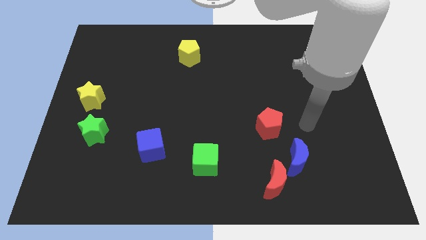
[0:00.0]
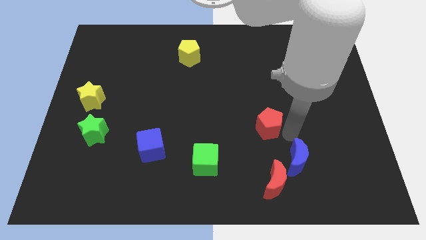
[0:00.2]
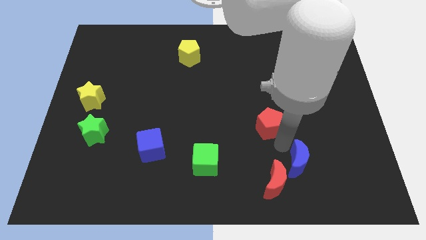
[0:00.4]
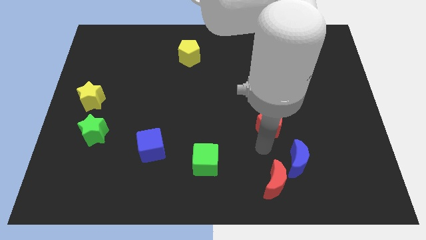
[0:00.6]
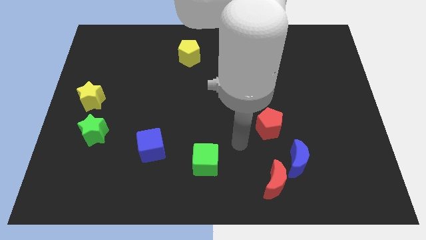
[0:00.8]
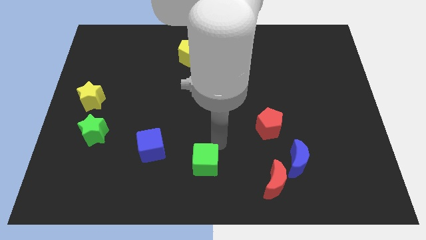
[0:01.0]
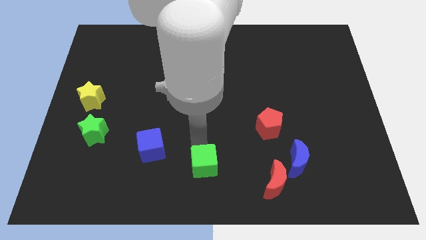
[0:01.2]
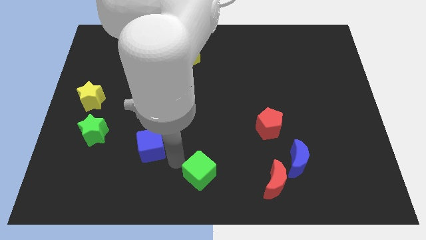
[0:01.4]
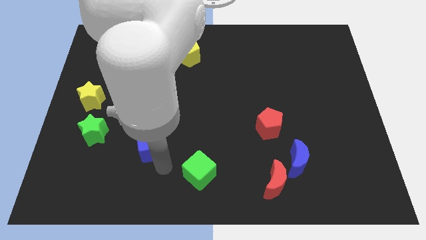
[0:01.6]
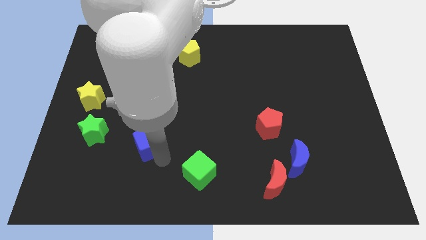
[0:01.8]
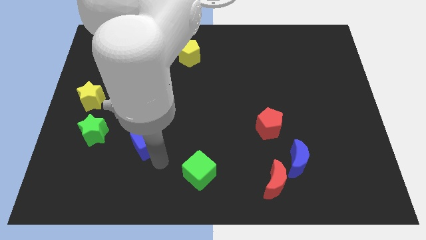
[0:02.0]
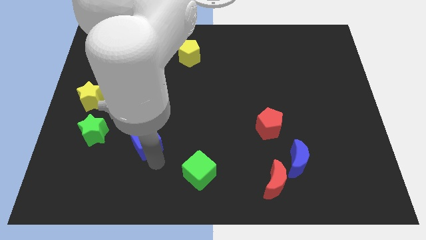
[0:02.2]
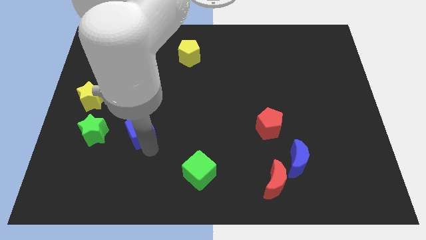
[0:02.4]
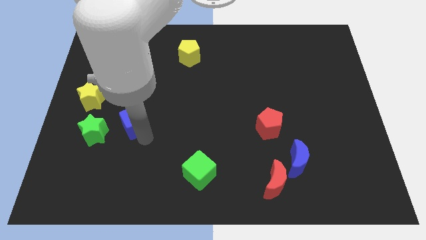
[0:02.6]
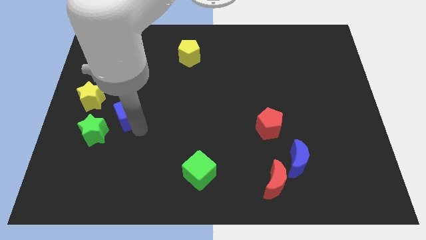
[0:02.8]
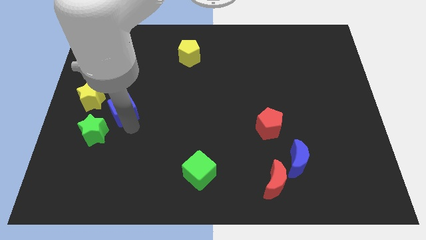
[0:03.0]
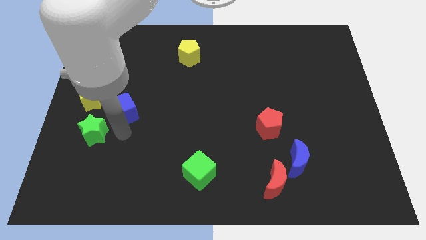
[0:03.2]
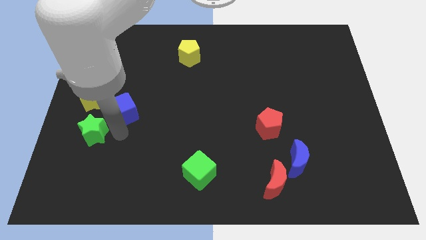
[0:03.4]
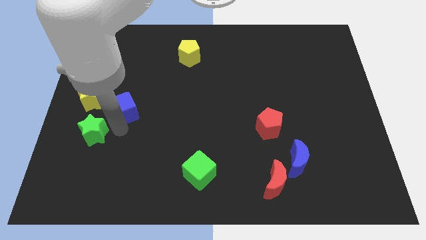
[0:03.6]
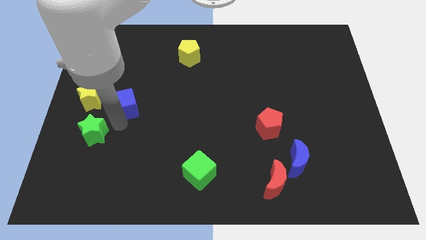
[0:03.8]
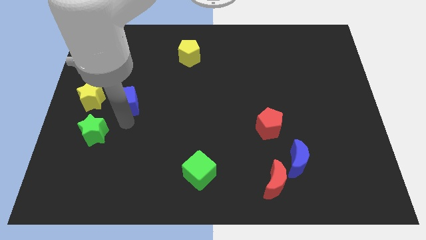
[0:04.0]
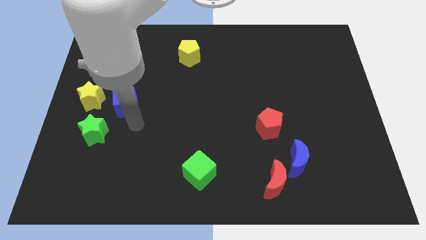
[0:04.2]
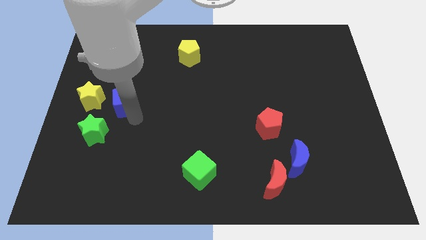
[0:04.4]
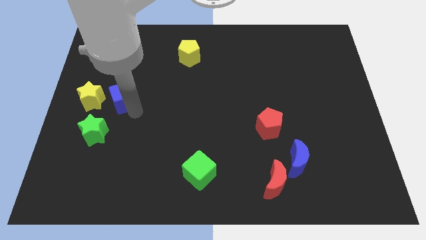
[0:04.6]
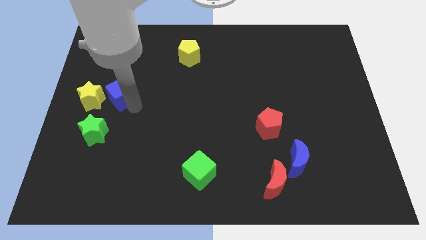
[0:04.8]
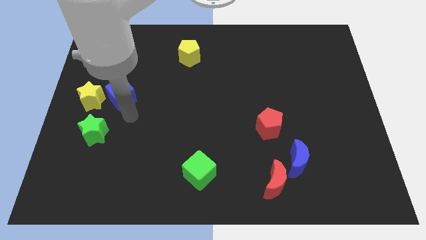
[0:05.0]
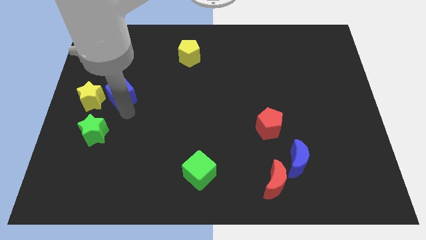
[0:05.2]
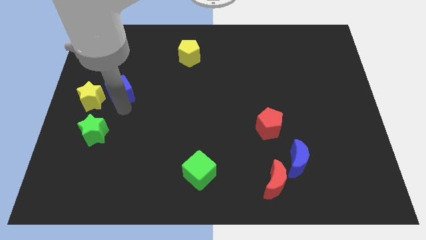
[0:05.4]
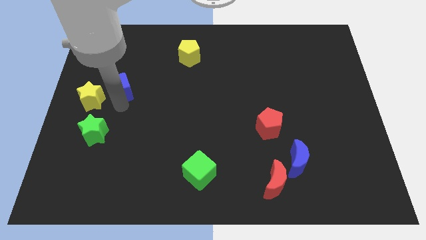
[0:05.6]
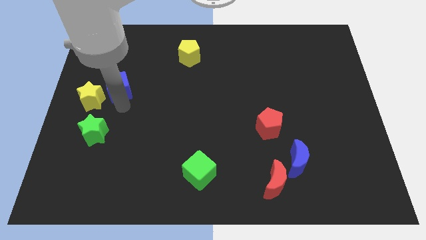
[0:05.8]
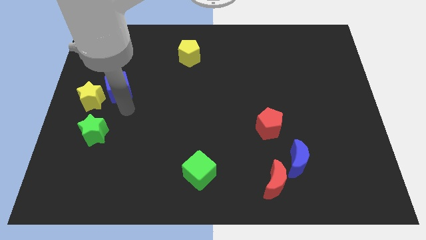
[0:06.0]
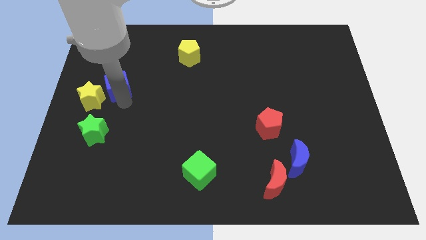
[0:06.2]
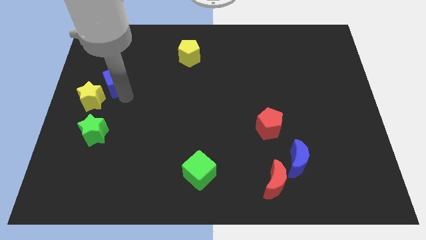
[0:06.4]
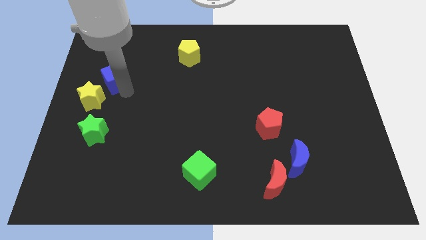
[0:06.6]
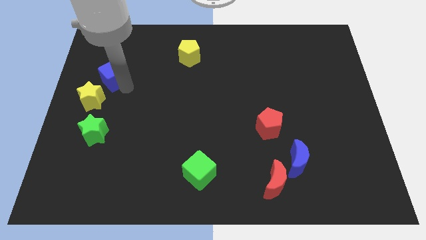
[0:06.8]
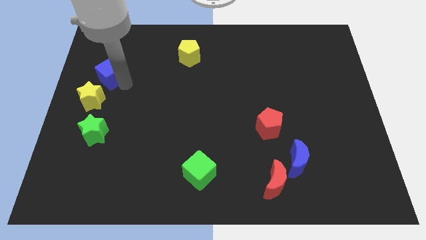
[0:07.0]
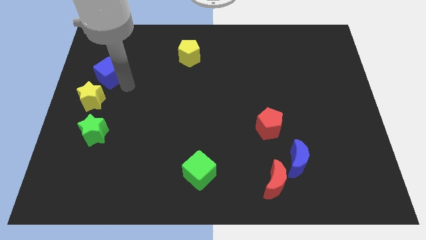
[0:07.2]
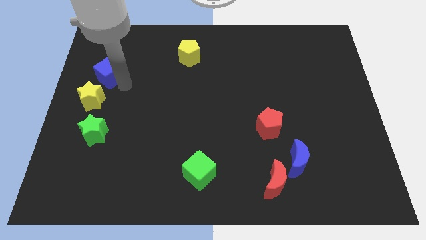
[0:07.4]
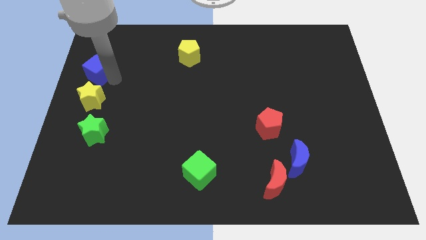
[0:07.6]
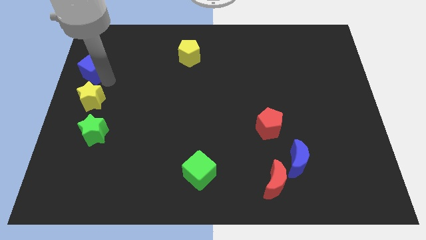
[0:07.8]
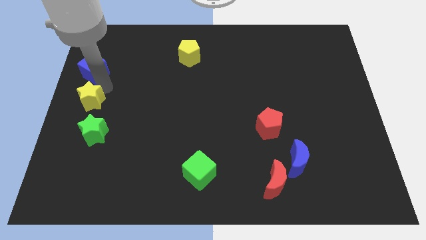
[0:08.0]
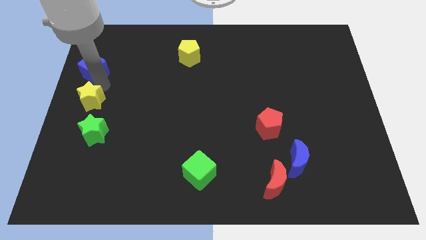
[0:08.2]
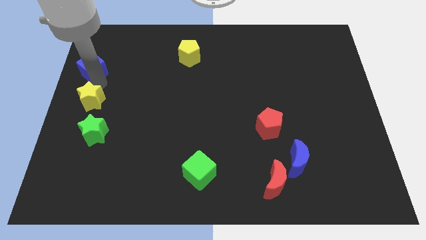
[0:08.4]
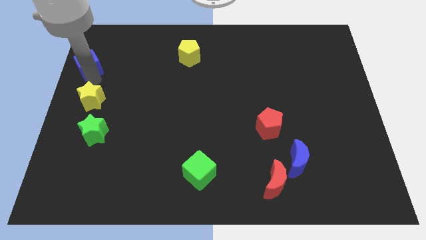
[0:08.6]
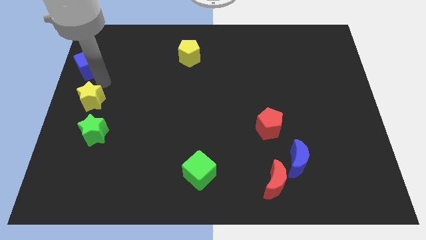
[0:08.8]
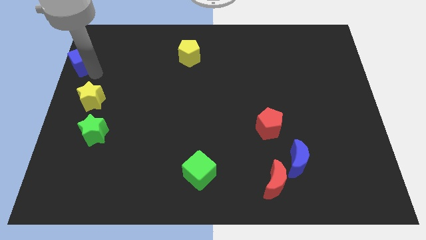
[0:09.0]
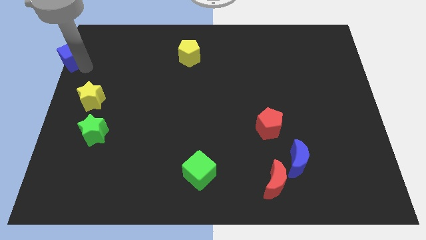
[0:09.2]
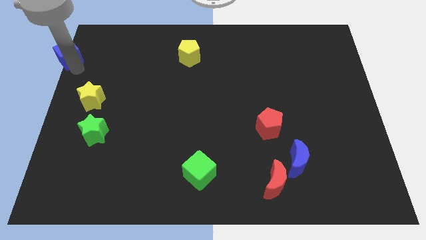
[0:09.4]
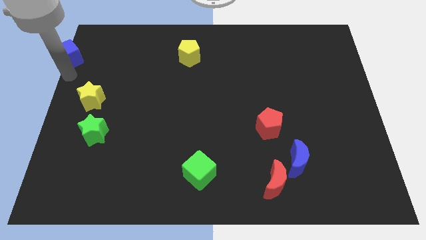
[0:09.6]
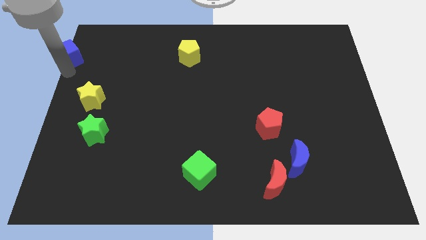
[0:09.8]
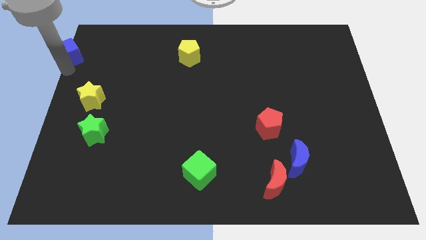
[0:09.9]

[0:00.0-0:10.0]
slide the blue cube to the upper left corner

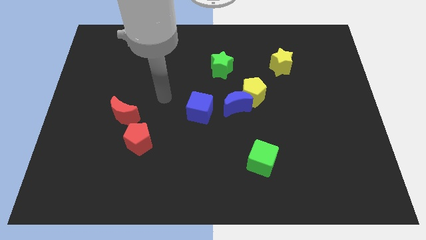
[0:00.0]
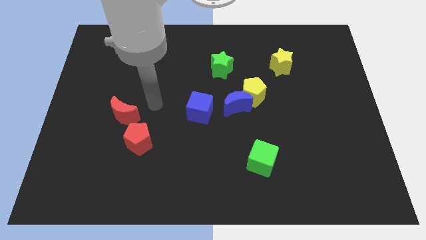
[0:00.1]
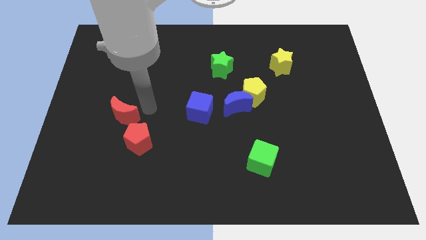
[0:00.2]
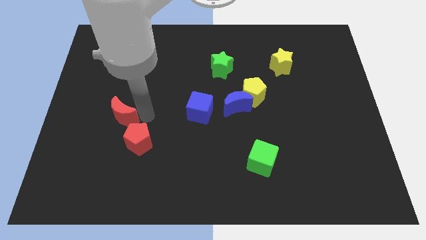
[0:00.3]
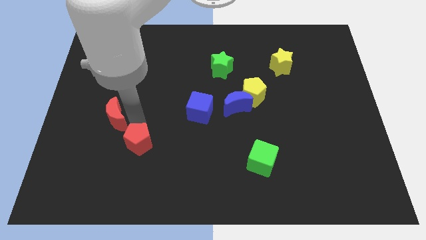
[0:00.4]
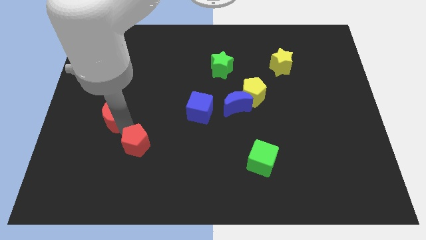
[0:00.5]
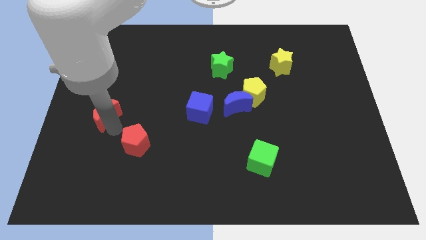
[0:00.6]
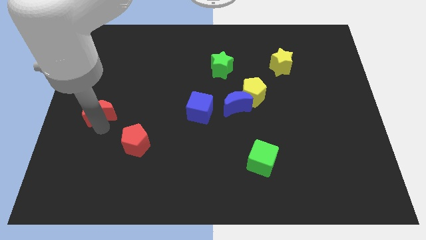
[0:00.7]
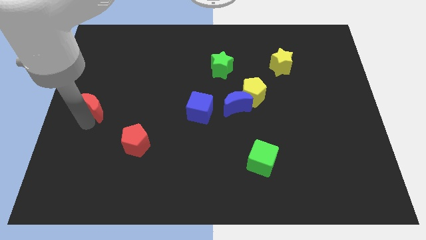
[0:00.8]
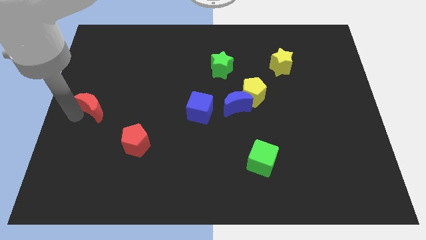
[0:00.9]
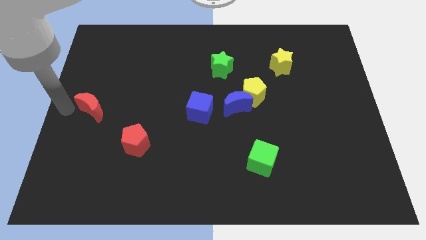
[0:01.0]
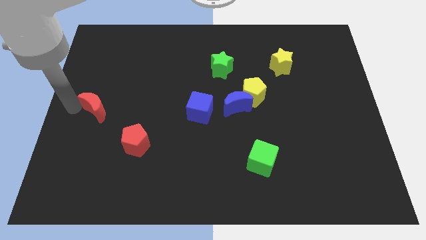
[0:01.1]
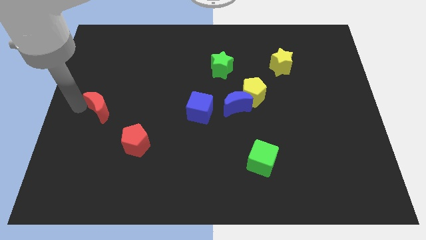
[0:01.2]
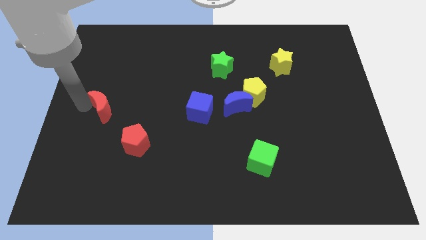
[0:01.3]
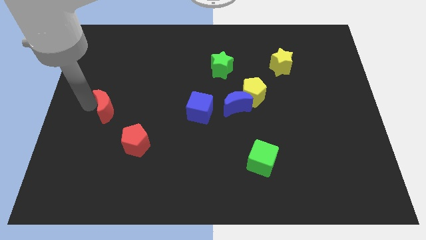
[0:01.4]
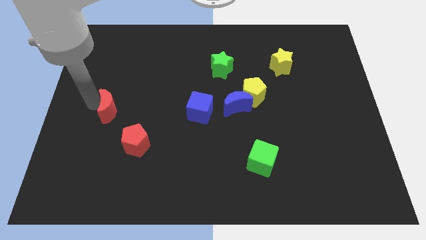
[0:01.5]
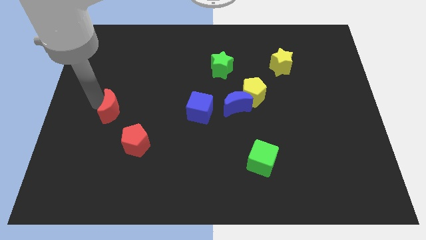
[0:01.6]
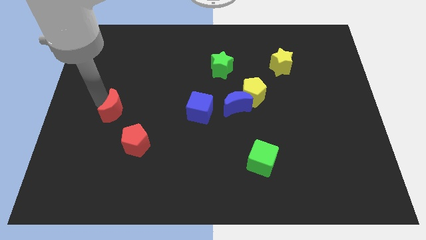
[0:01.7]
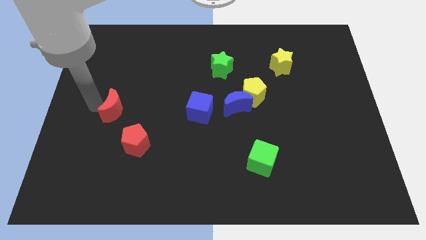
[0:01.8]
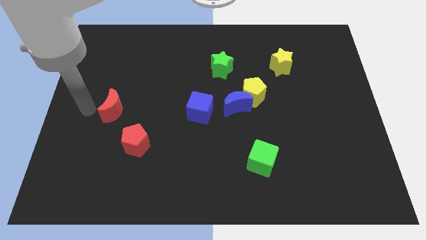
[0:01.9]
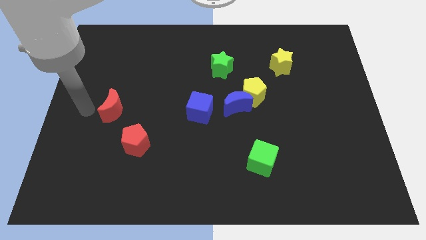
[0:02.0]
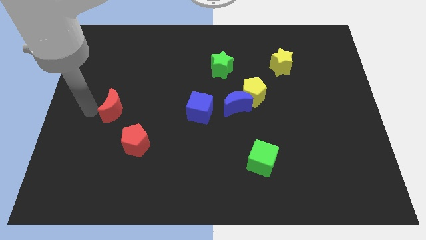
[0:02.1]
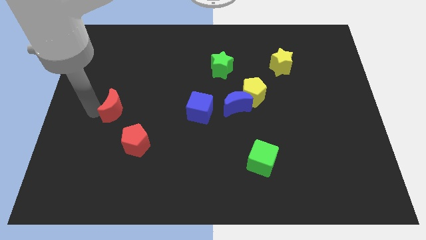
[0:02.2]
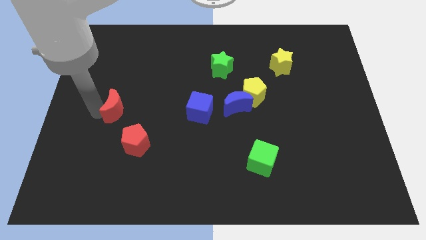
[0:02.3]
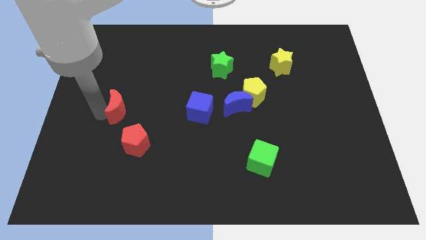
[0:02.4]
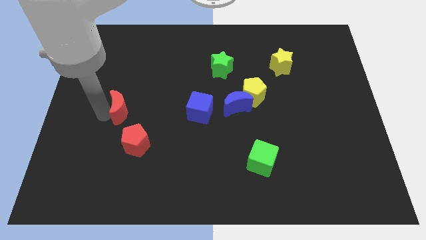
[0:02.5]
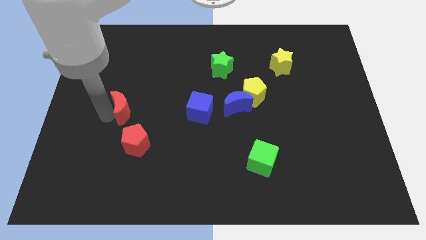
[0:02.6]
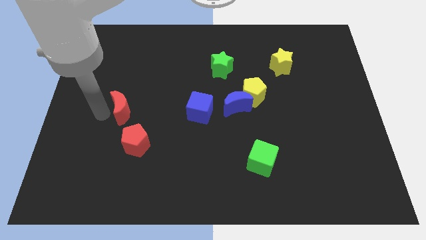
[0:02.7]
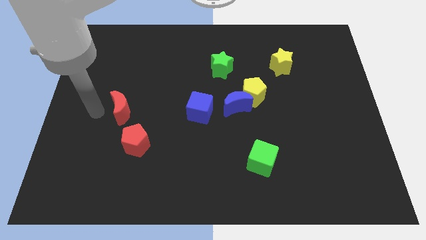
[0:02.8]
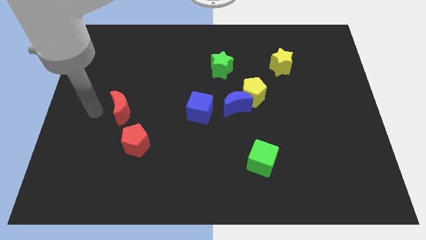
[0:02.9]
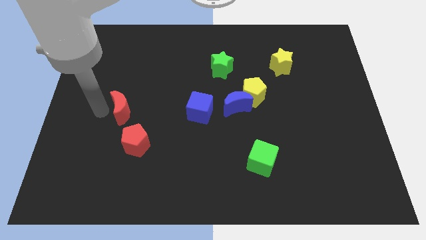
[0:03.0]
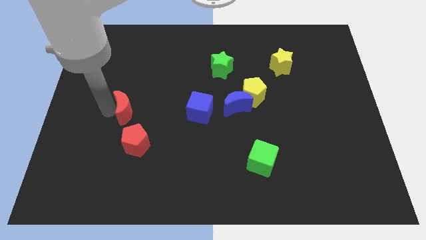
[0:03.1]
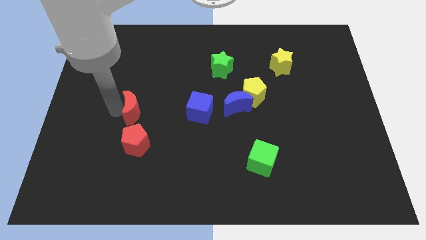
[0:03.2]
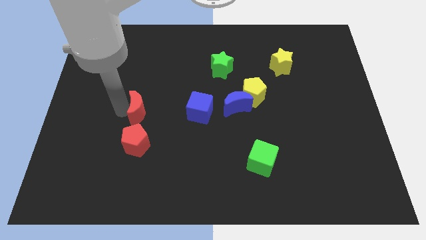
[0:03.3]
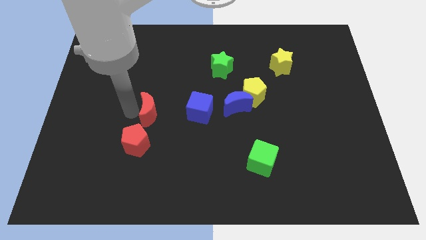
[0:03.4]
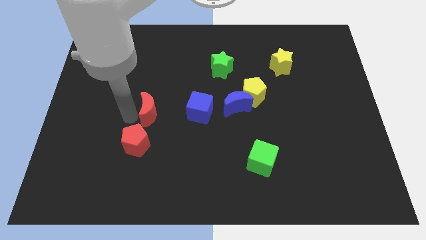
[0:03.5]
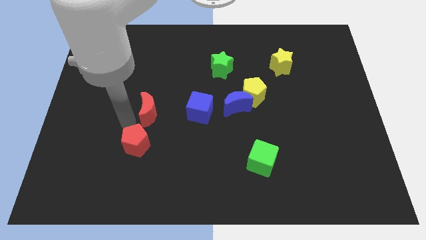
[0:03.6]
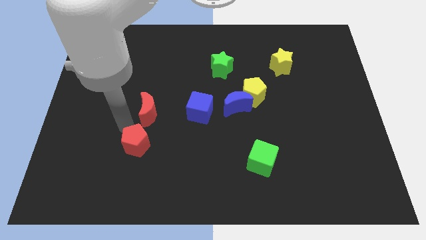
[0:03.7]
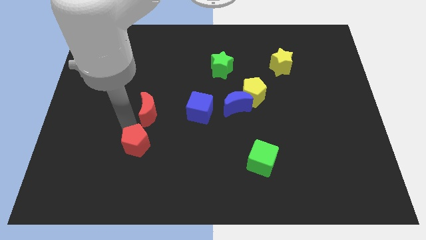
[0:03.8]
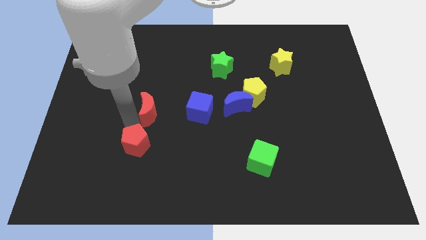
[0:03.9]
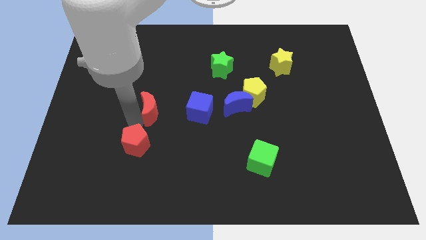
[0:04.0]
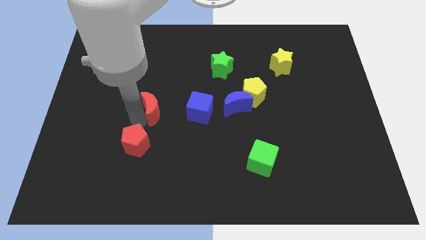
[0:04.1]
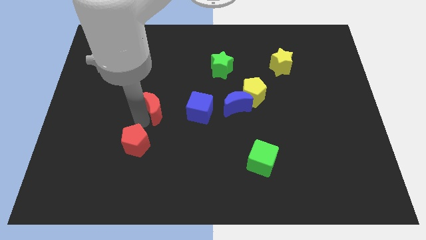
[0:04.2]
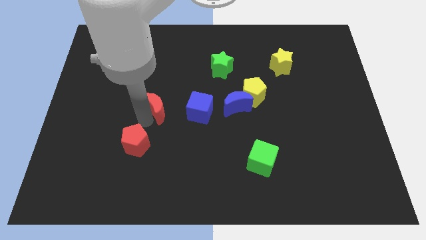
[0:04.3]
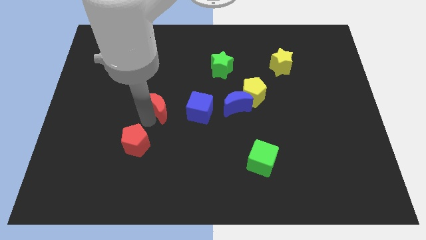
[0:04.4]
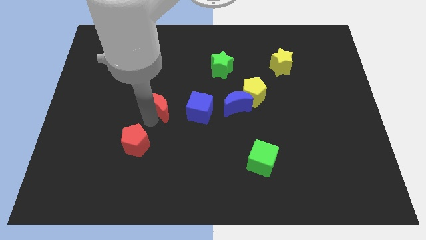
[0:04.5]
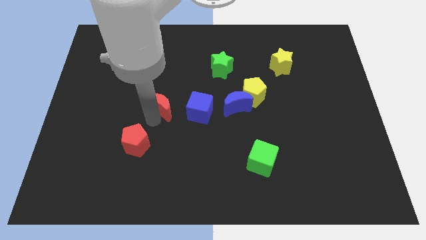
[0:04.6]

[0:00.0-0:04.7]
move the red moon to the middle of the board
